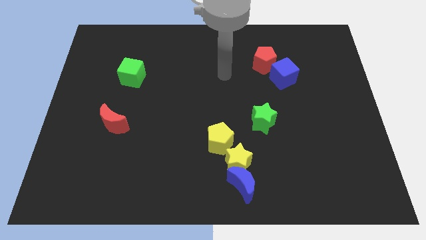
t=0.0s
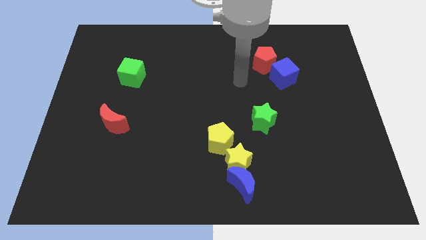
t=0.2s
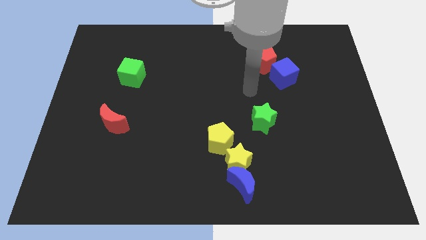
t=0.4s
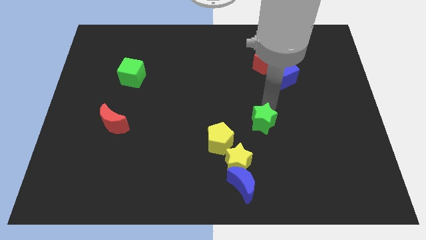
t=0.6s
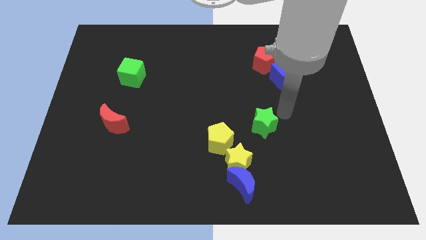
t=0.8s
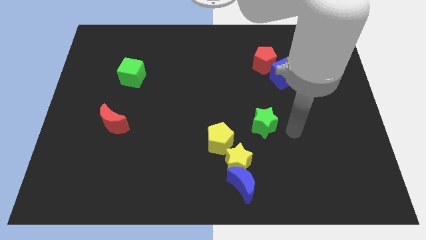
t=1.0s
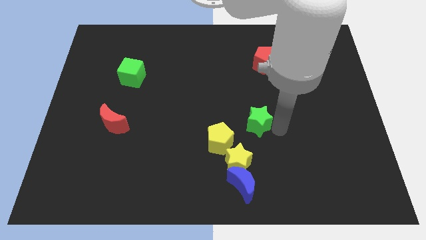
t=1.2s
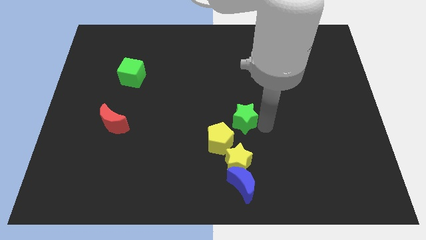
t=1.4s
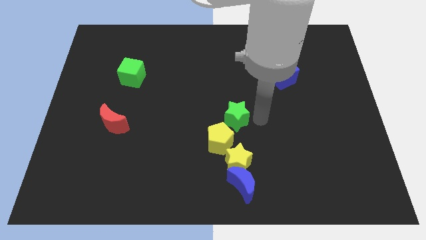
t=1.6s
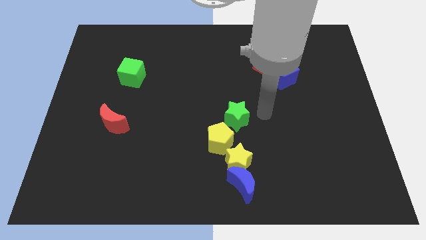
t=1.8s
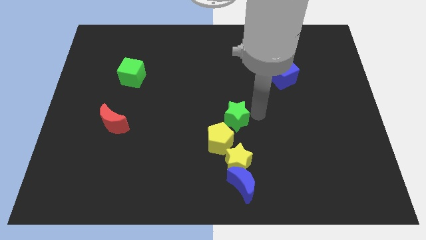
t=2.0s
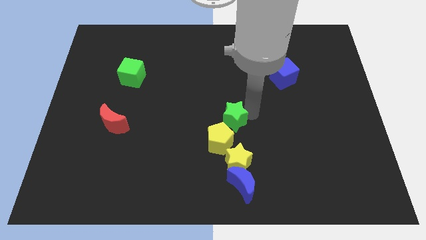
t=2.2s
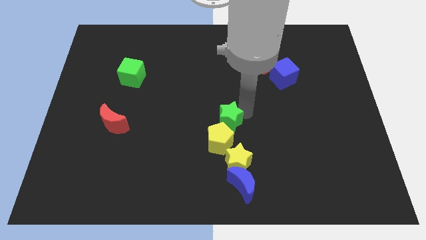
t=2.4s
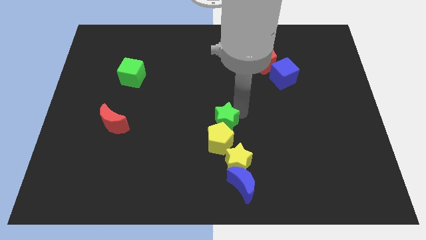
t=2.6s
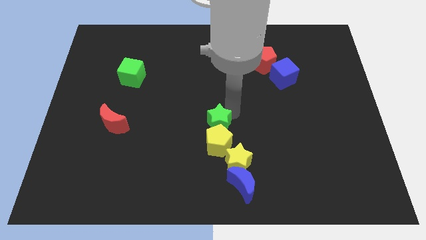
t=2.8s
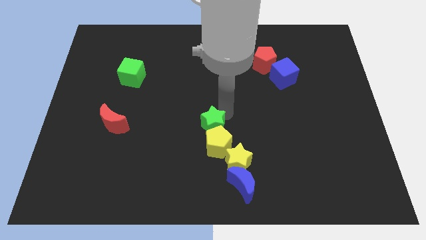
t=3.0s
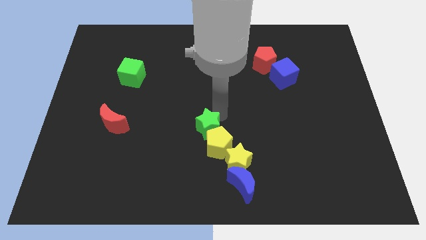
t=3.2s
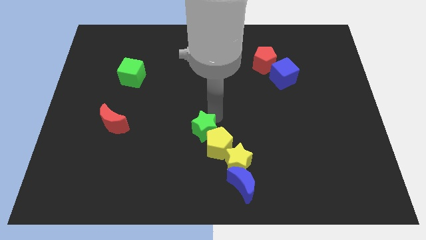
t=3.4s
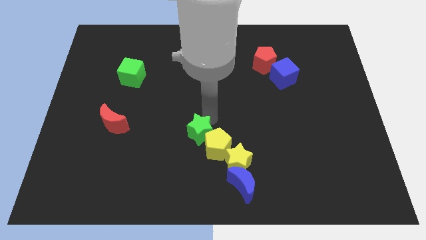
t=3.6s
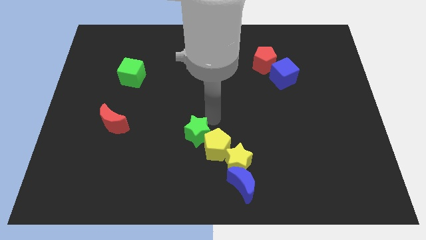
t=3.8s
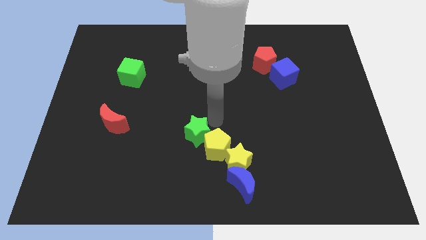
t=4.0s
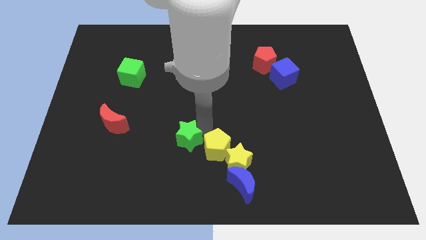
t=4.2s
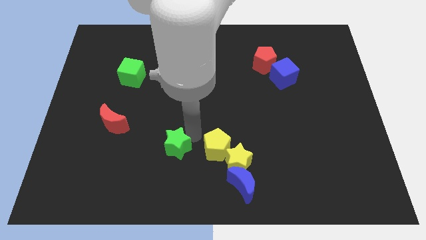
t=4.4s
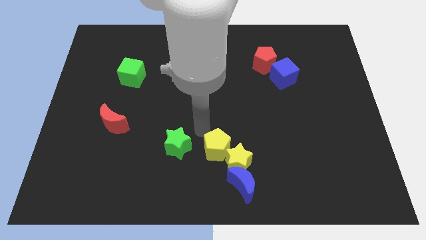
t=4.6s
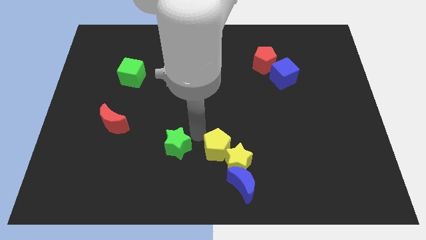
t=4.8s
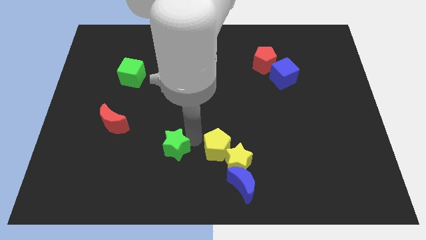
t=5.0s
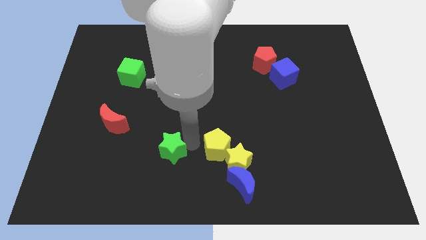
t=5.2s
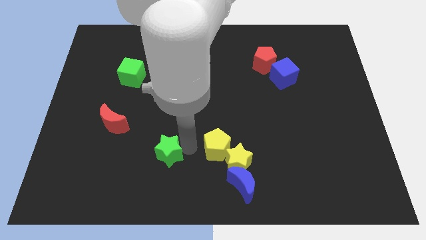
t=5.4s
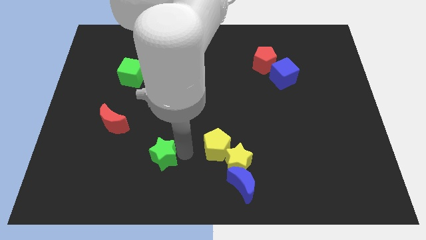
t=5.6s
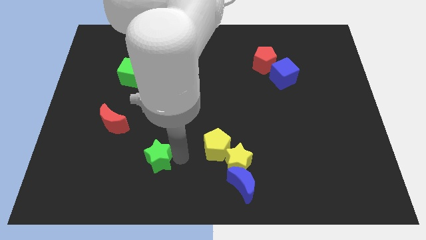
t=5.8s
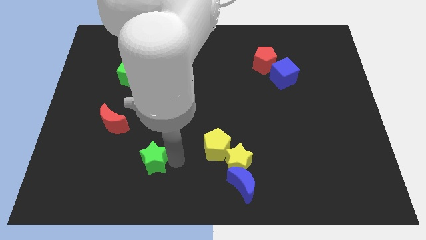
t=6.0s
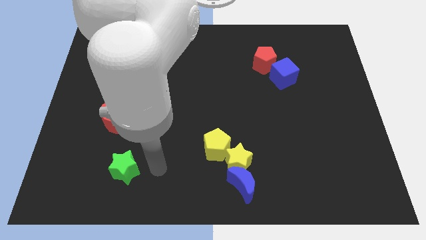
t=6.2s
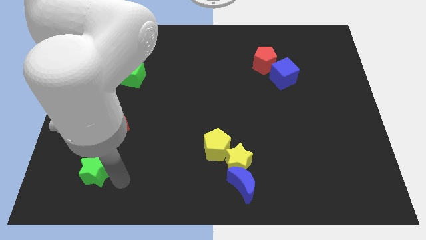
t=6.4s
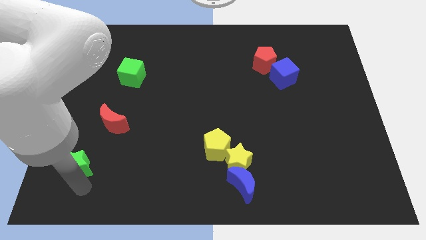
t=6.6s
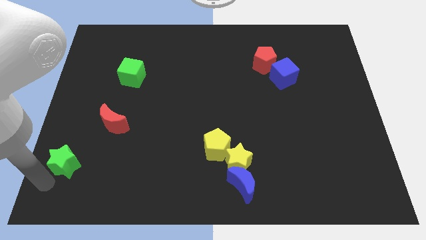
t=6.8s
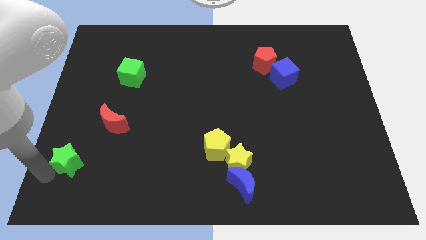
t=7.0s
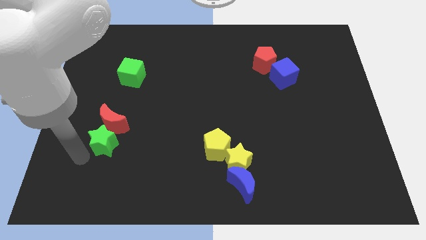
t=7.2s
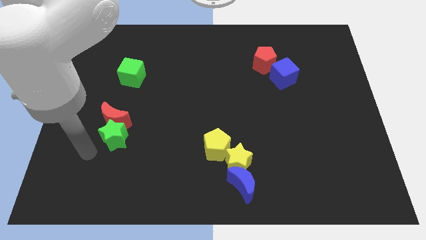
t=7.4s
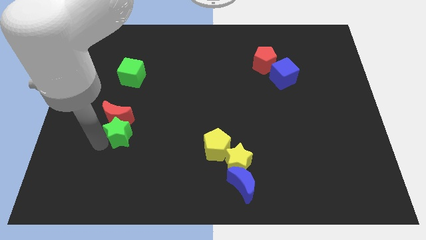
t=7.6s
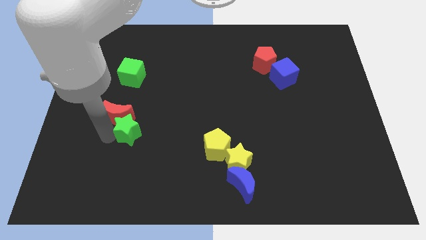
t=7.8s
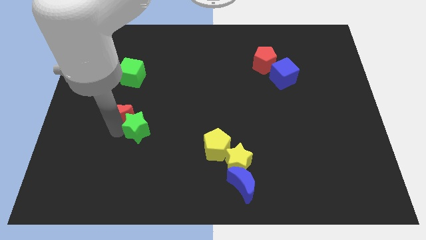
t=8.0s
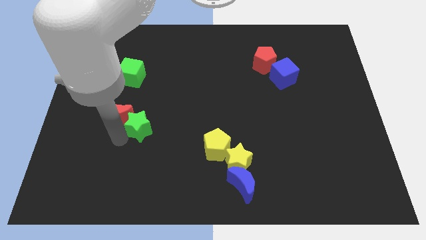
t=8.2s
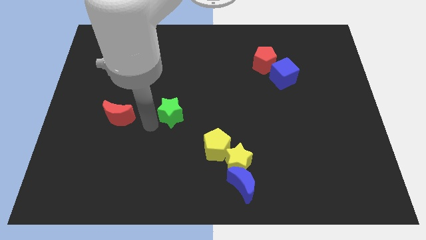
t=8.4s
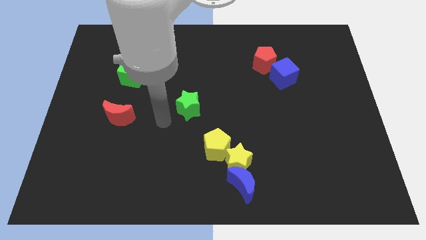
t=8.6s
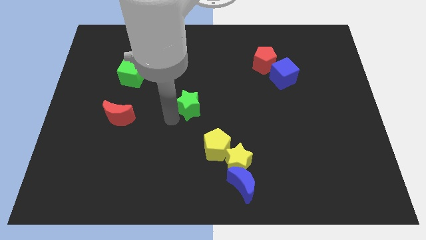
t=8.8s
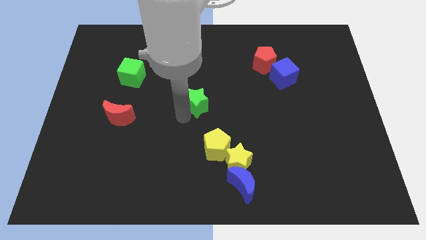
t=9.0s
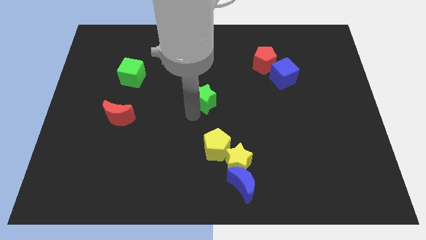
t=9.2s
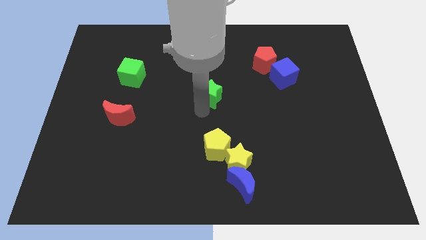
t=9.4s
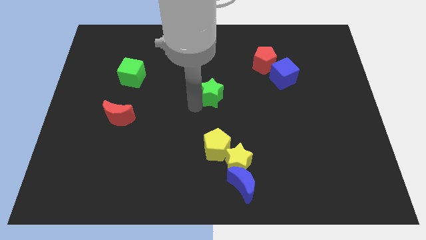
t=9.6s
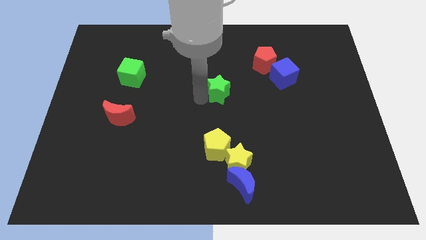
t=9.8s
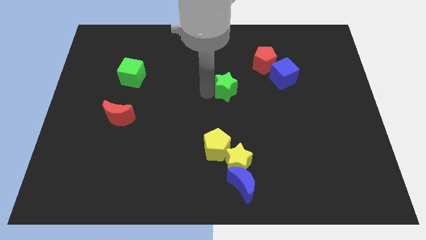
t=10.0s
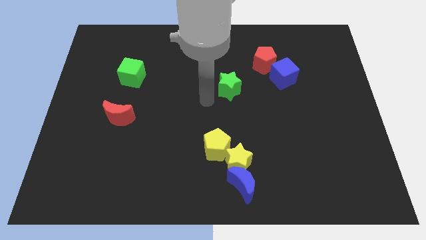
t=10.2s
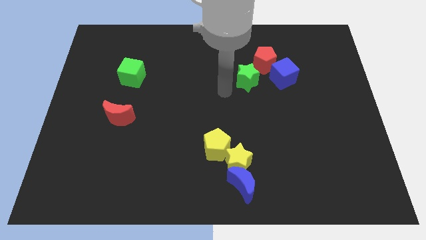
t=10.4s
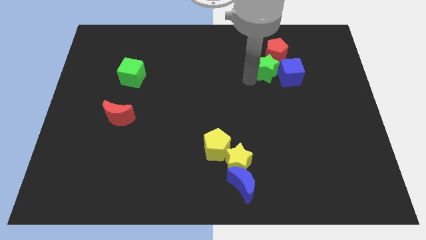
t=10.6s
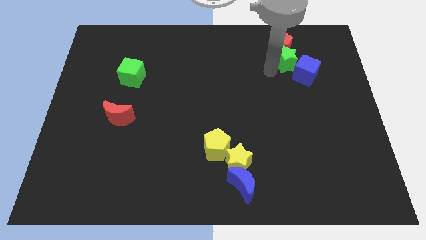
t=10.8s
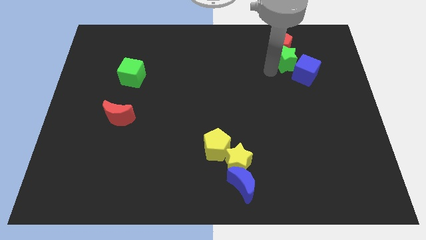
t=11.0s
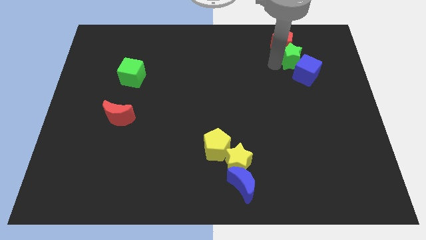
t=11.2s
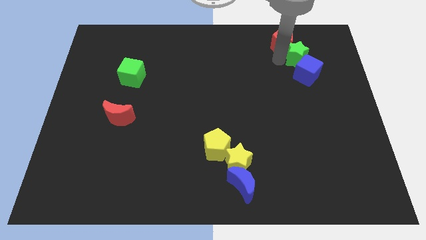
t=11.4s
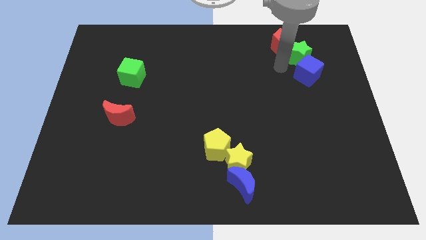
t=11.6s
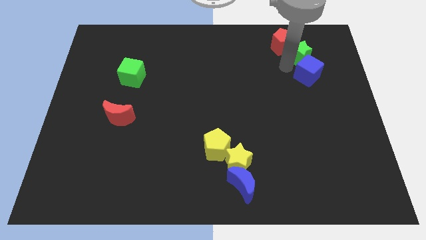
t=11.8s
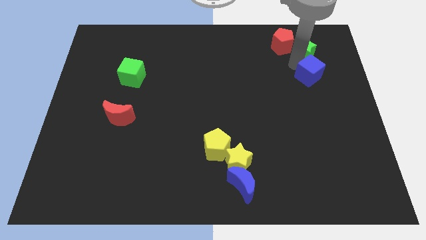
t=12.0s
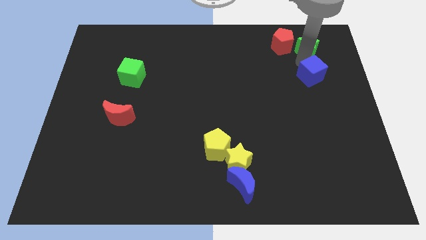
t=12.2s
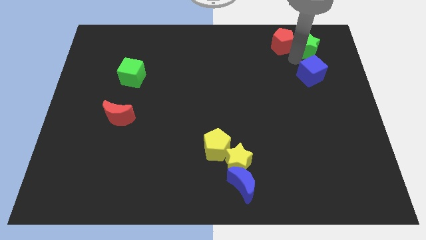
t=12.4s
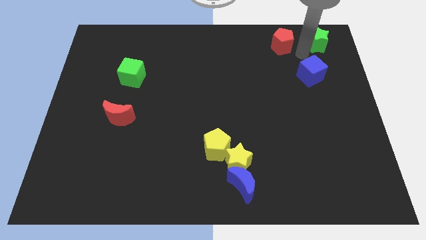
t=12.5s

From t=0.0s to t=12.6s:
push the green star to the top right corner
